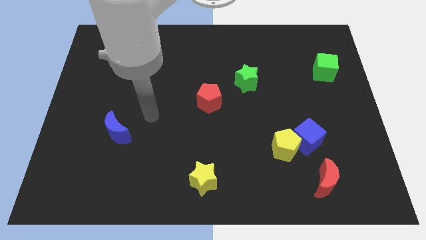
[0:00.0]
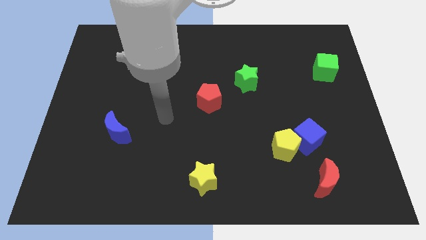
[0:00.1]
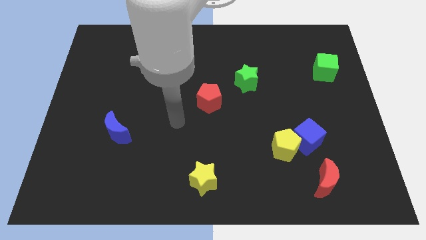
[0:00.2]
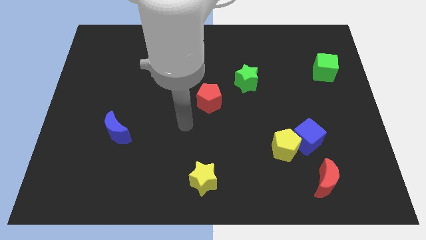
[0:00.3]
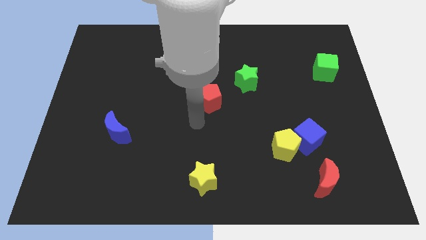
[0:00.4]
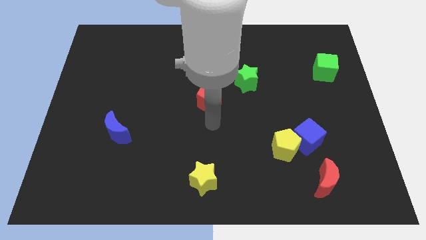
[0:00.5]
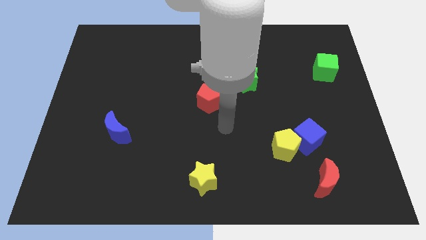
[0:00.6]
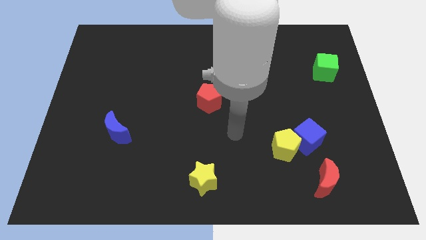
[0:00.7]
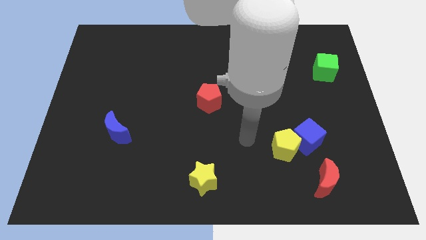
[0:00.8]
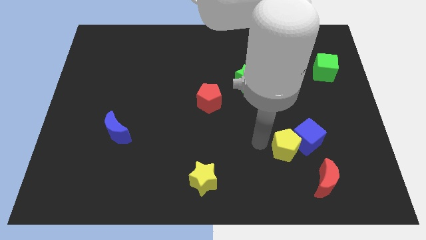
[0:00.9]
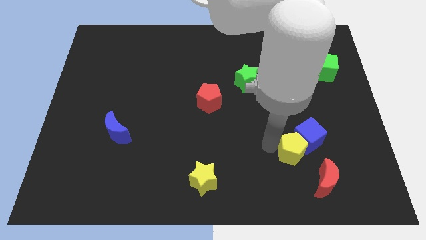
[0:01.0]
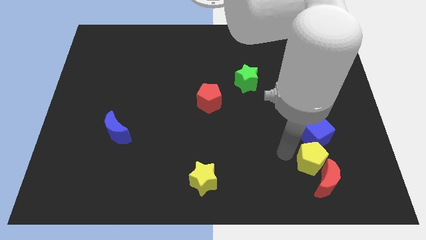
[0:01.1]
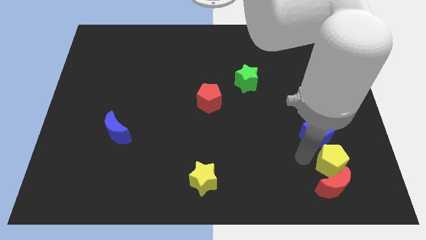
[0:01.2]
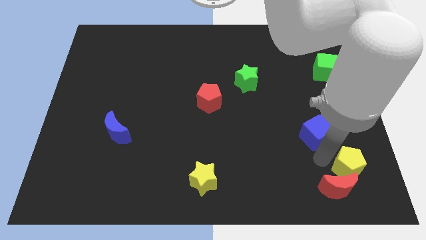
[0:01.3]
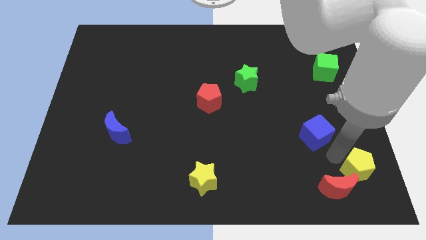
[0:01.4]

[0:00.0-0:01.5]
pull the blue cube apart from the yellow pentagon

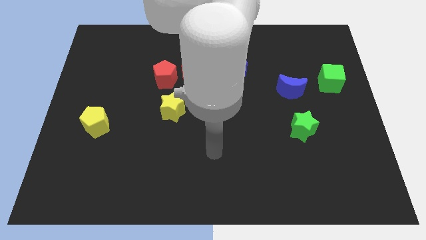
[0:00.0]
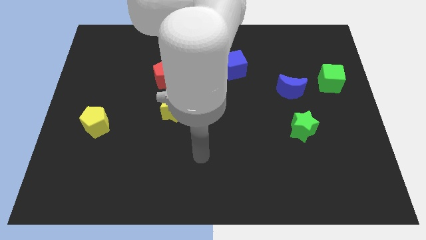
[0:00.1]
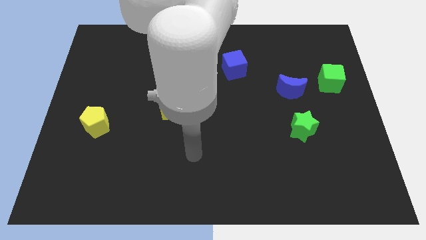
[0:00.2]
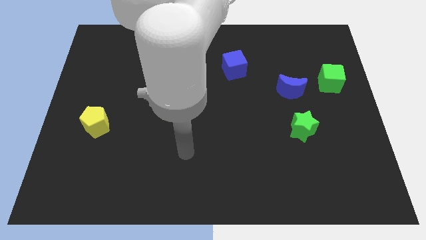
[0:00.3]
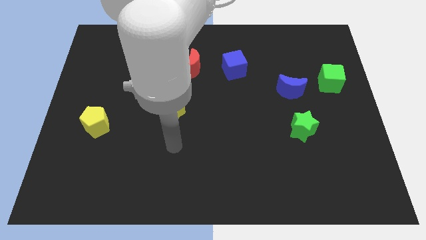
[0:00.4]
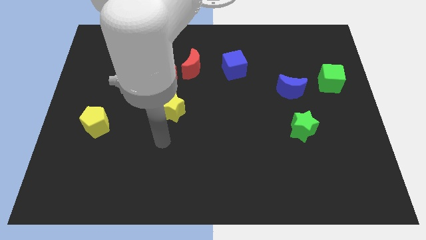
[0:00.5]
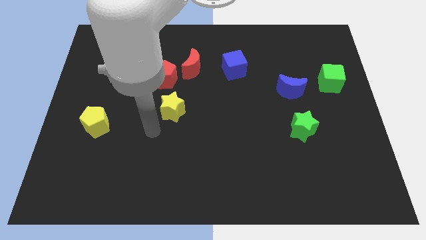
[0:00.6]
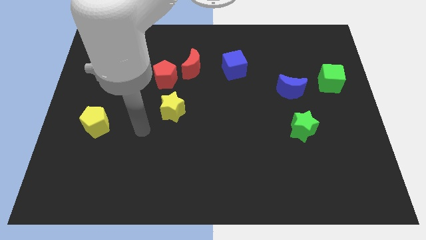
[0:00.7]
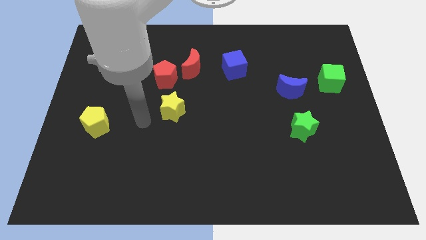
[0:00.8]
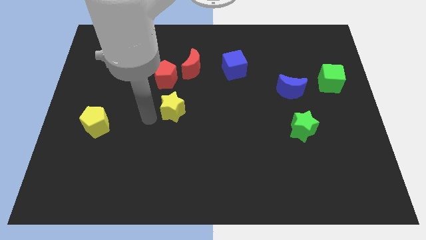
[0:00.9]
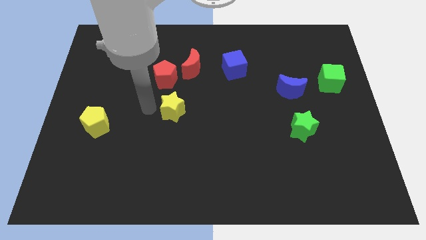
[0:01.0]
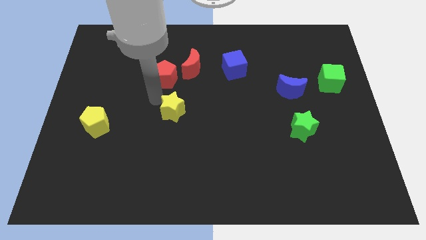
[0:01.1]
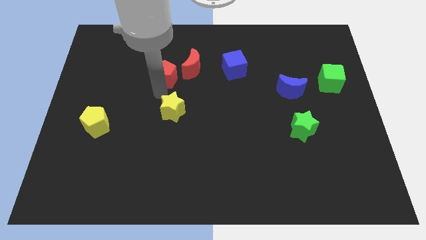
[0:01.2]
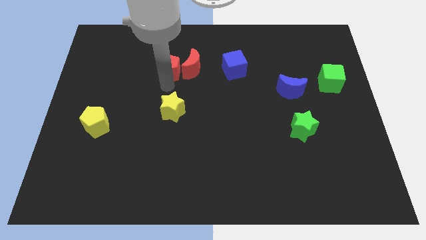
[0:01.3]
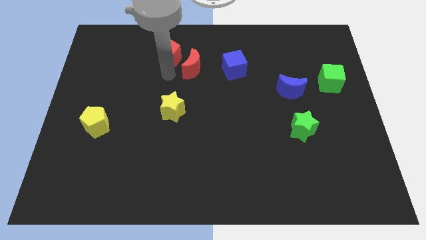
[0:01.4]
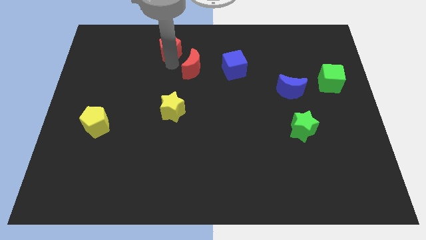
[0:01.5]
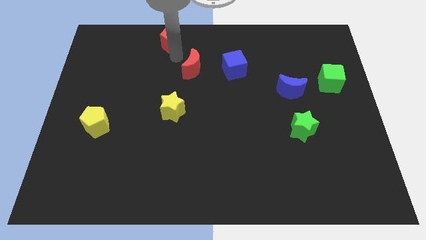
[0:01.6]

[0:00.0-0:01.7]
separate the red moon from the red pentagon

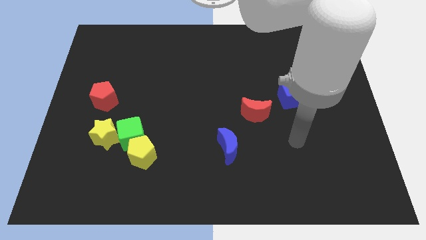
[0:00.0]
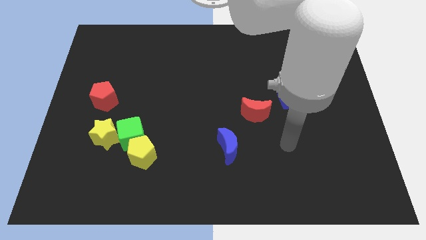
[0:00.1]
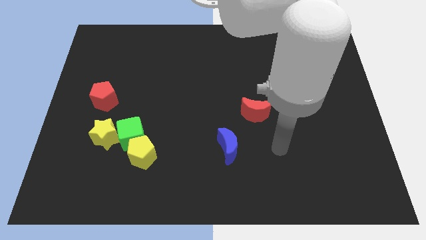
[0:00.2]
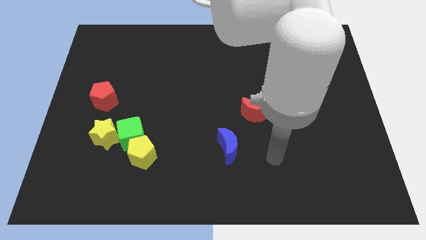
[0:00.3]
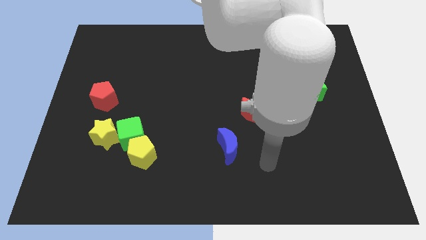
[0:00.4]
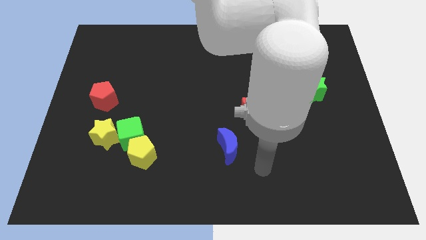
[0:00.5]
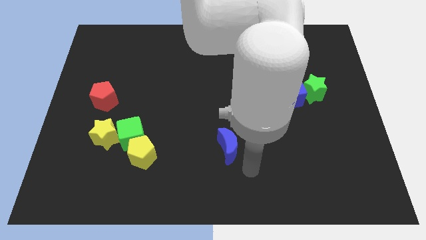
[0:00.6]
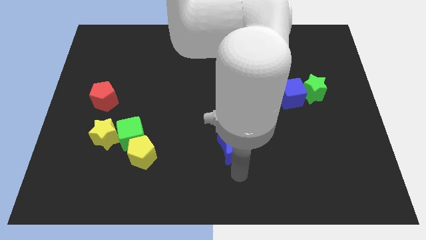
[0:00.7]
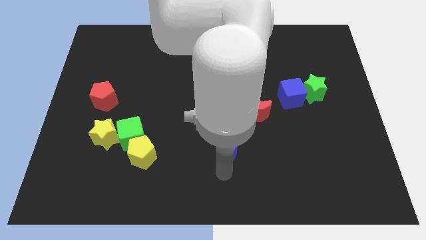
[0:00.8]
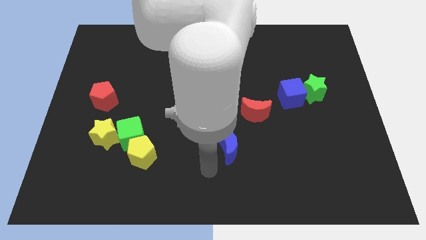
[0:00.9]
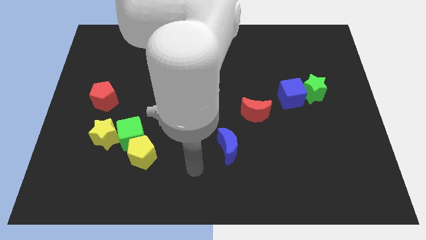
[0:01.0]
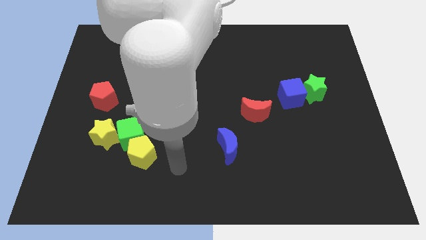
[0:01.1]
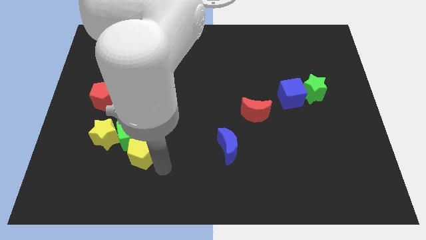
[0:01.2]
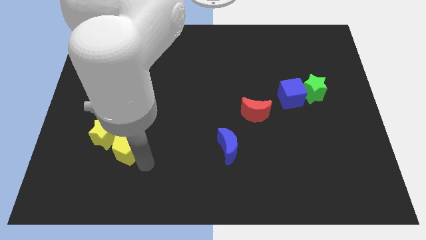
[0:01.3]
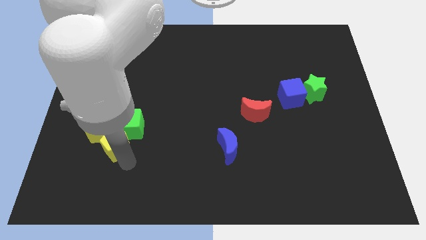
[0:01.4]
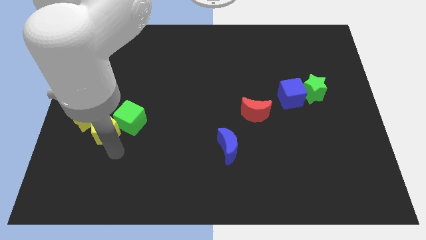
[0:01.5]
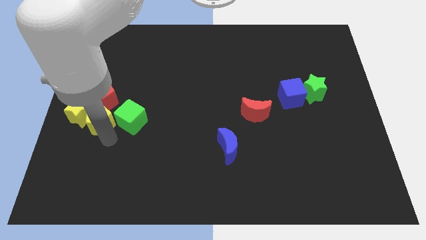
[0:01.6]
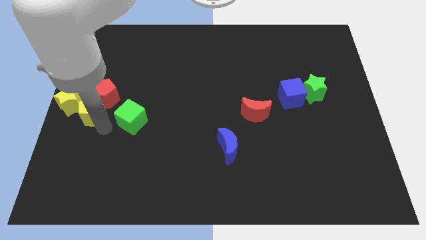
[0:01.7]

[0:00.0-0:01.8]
move the green cube away from the yellow pentagon and yellow star

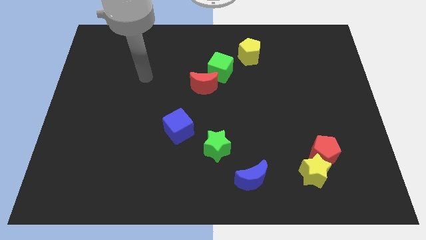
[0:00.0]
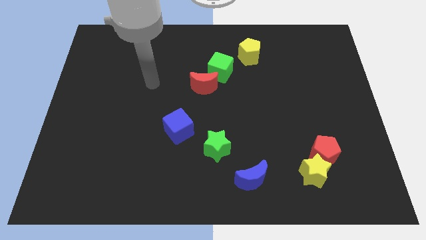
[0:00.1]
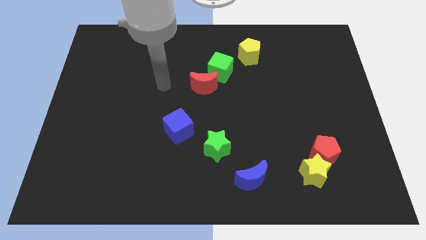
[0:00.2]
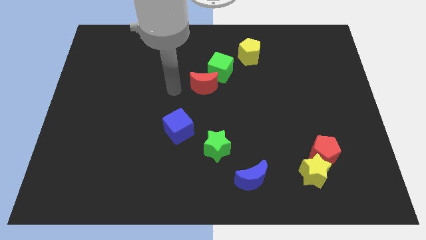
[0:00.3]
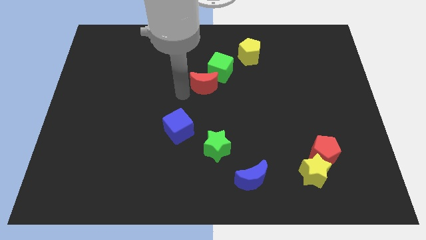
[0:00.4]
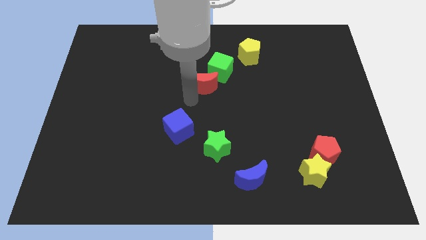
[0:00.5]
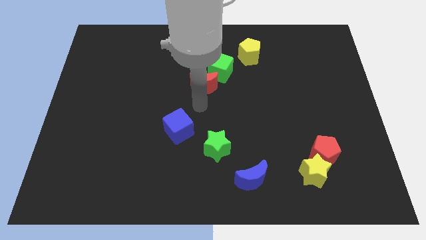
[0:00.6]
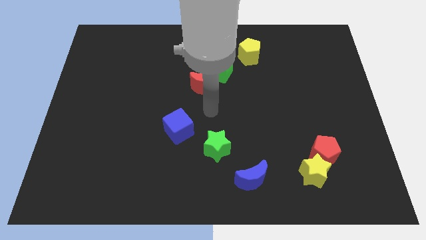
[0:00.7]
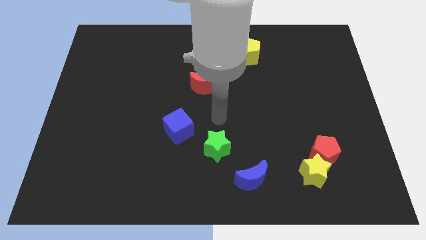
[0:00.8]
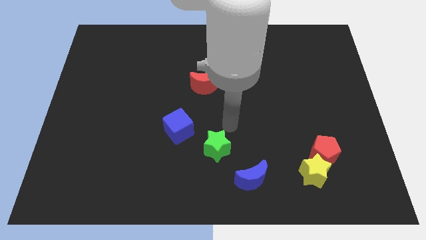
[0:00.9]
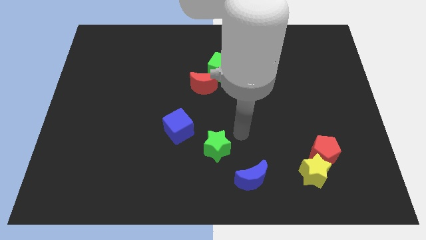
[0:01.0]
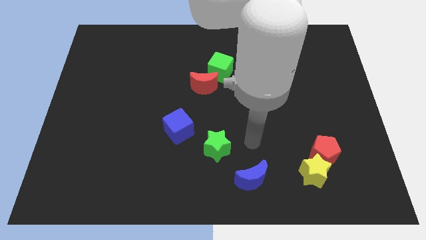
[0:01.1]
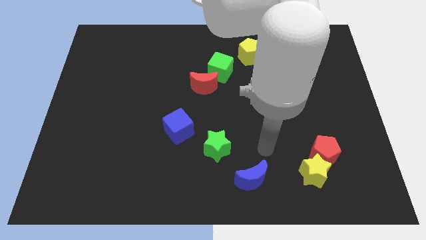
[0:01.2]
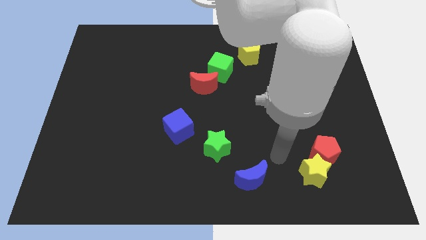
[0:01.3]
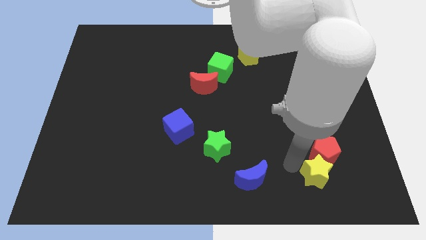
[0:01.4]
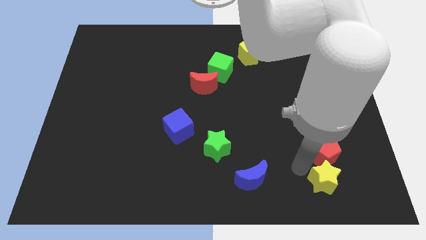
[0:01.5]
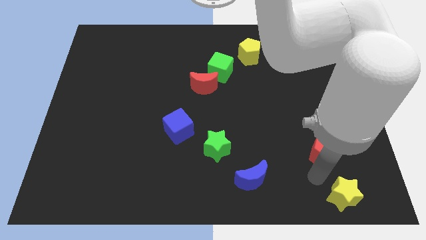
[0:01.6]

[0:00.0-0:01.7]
separate the red pentagon from the yellow star

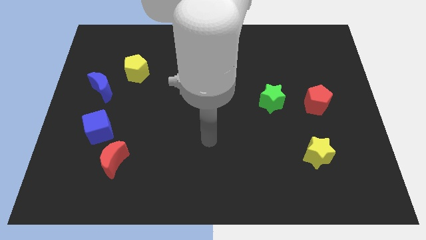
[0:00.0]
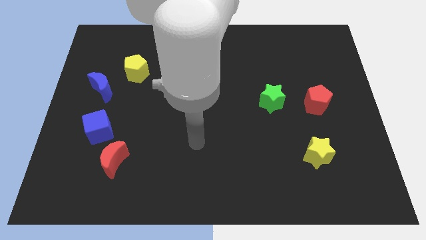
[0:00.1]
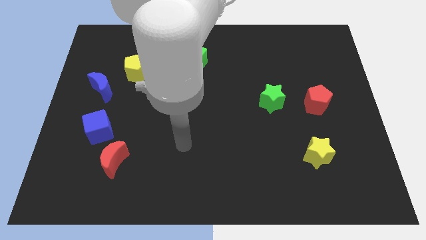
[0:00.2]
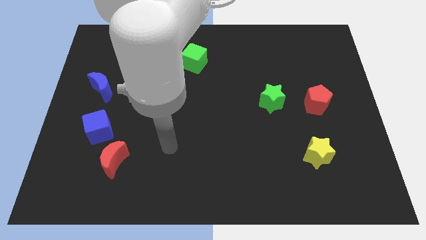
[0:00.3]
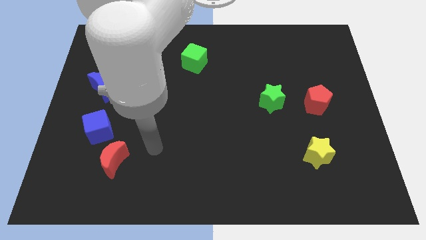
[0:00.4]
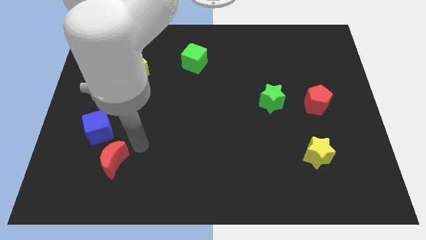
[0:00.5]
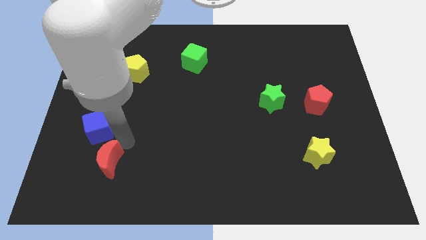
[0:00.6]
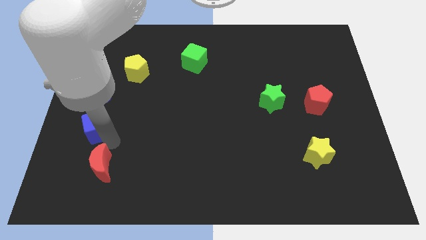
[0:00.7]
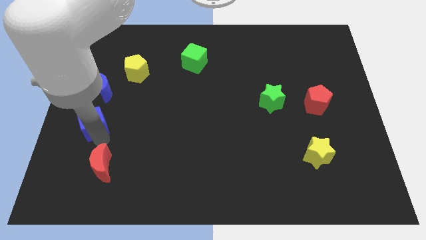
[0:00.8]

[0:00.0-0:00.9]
move the red moon away from the blue cube

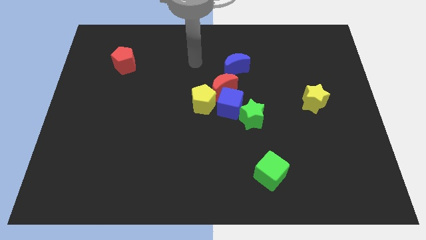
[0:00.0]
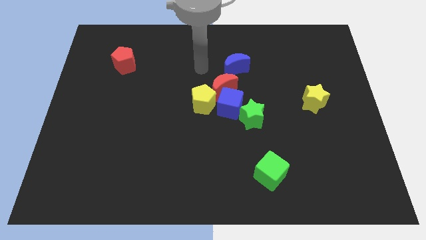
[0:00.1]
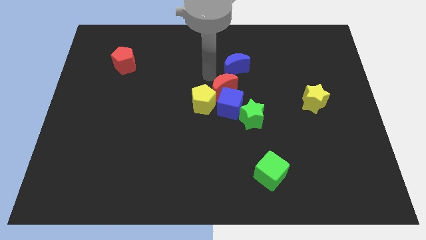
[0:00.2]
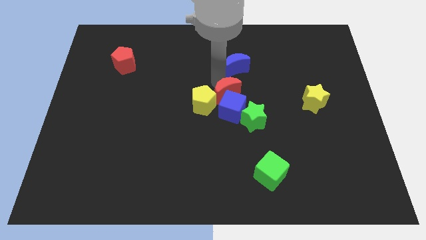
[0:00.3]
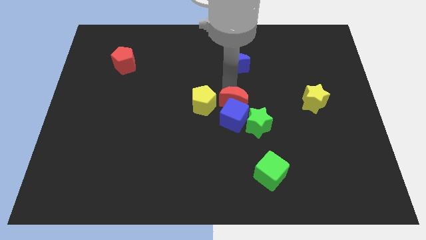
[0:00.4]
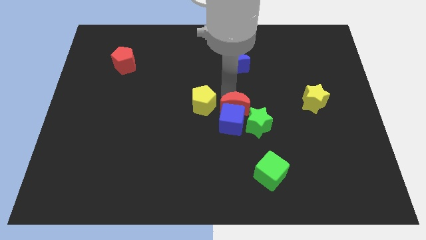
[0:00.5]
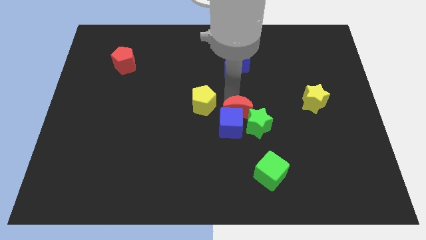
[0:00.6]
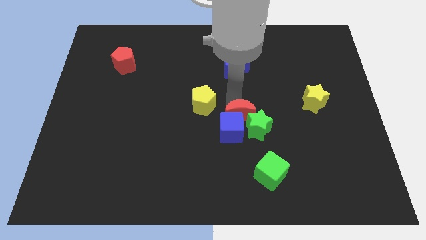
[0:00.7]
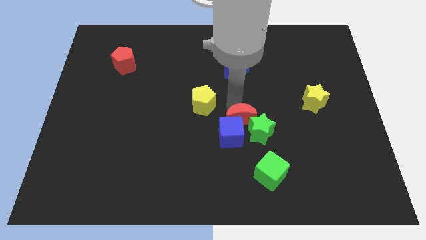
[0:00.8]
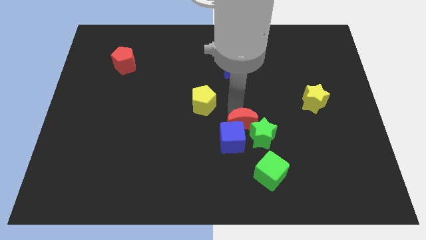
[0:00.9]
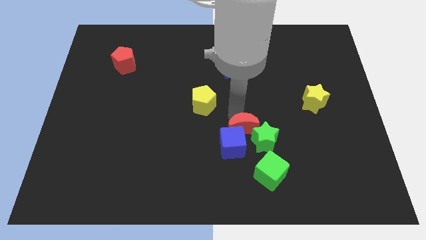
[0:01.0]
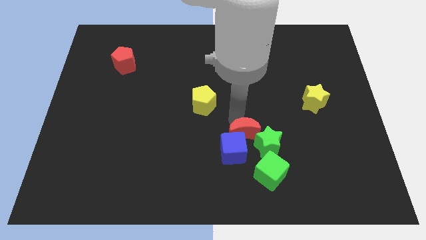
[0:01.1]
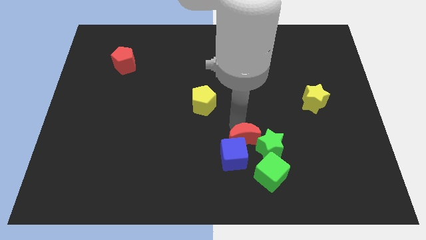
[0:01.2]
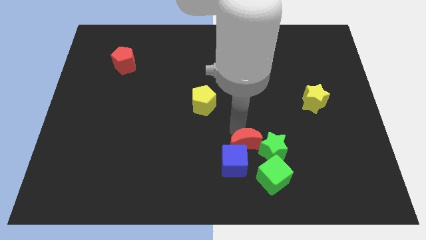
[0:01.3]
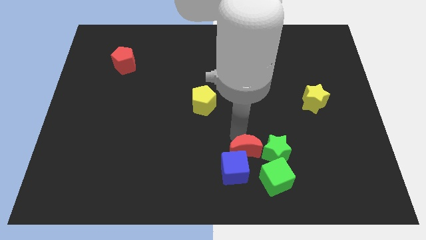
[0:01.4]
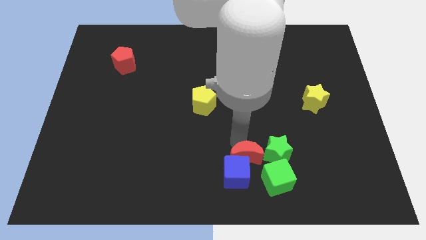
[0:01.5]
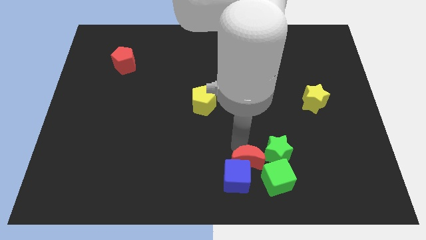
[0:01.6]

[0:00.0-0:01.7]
move the blue cube away from the red moon, green star, and yellow pentagon
